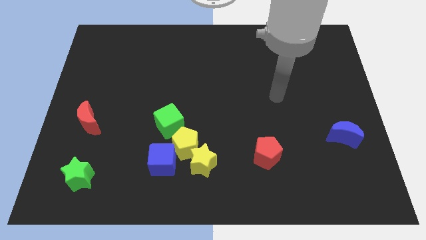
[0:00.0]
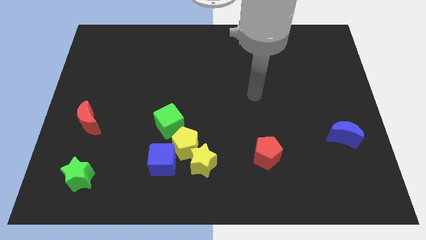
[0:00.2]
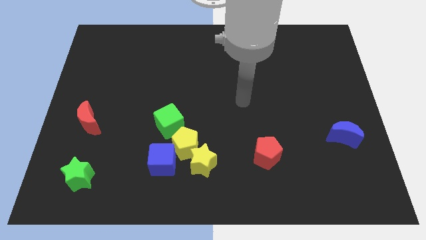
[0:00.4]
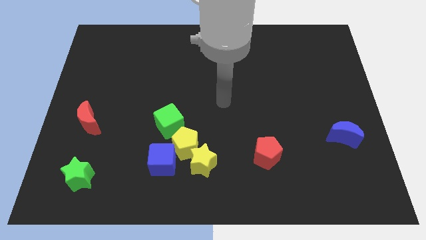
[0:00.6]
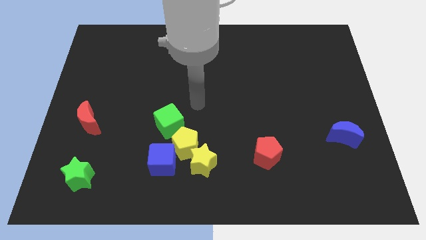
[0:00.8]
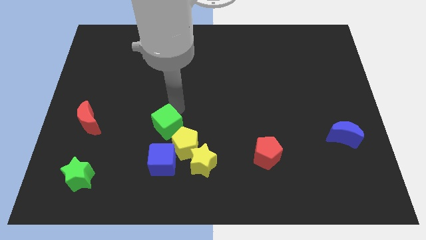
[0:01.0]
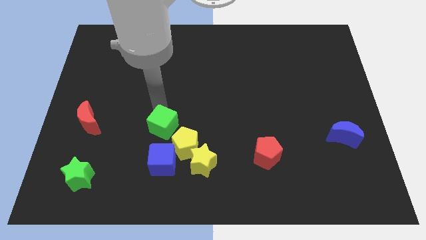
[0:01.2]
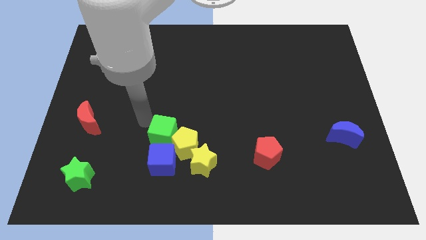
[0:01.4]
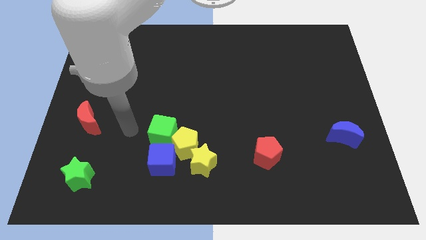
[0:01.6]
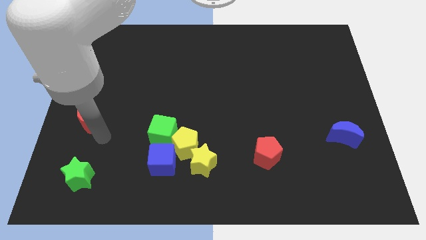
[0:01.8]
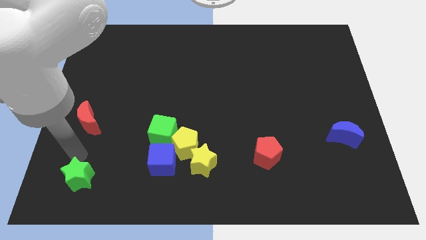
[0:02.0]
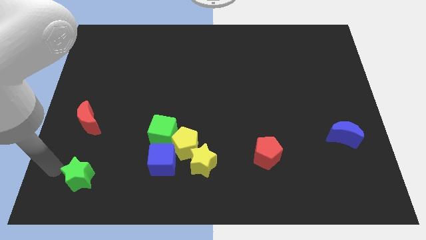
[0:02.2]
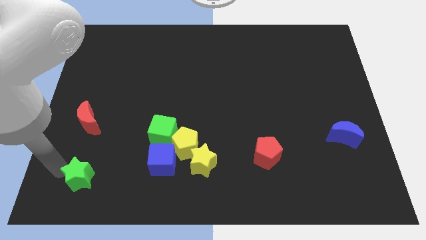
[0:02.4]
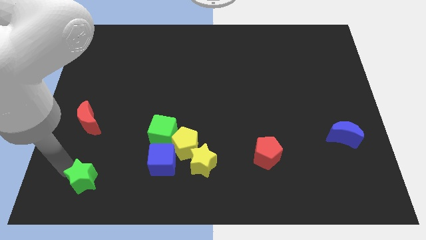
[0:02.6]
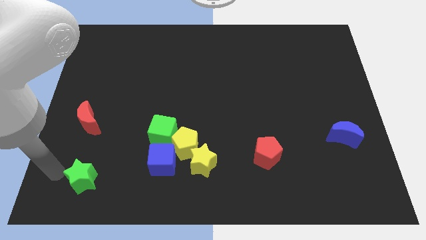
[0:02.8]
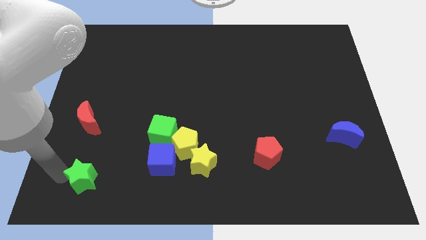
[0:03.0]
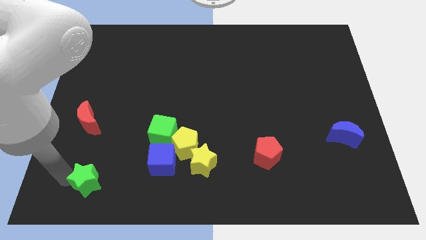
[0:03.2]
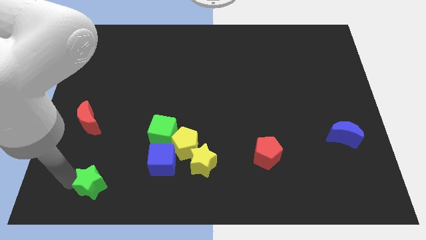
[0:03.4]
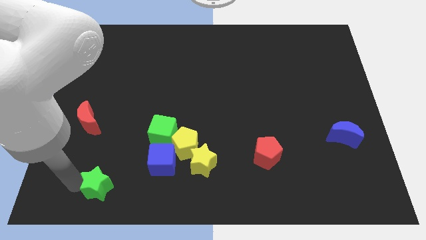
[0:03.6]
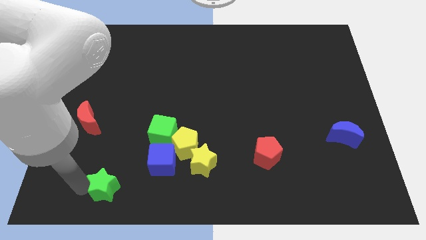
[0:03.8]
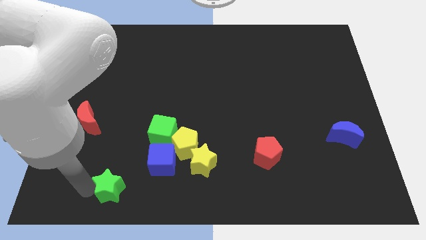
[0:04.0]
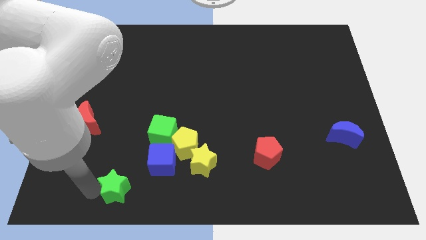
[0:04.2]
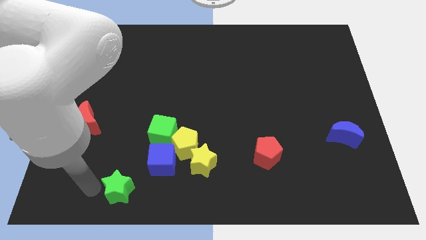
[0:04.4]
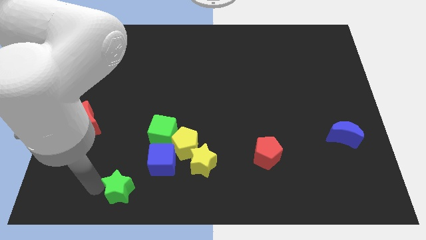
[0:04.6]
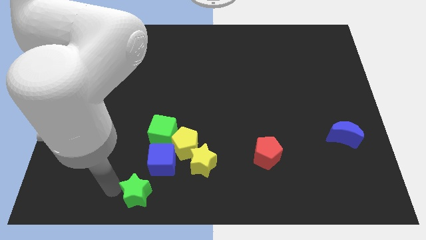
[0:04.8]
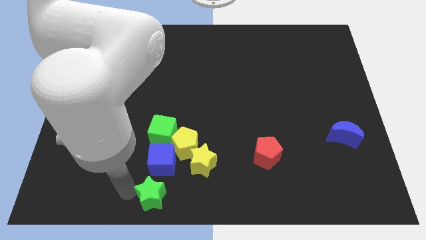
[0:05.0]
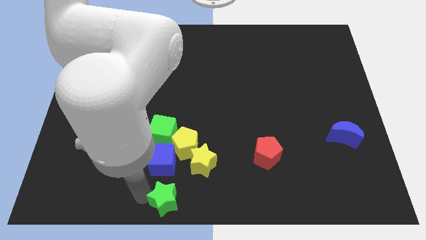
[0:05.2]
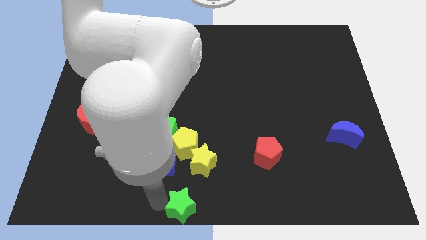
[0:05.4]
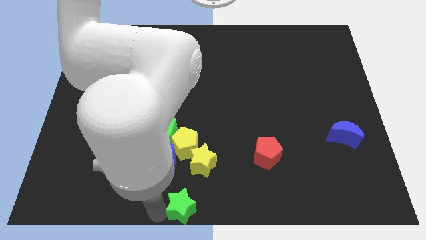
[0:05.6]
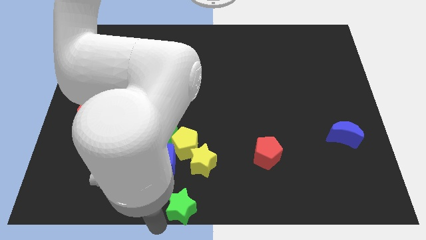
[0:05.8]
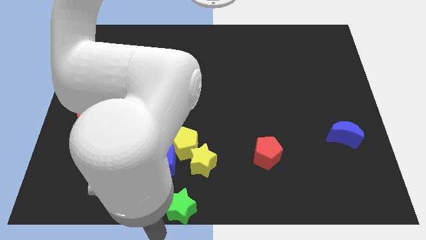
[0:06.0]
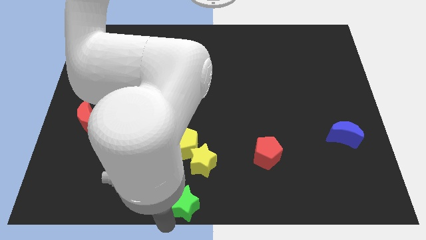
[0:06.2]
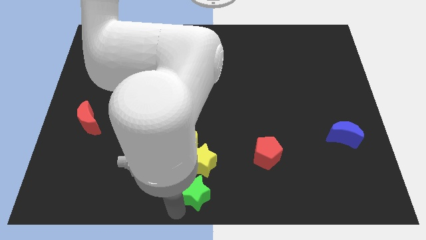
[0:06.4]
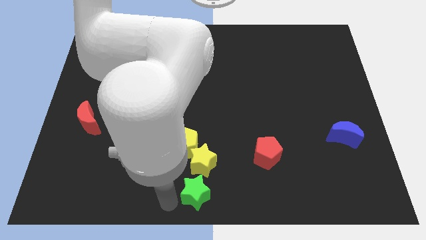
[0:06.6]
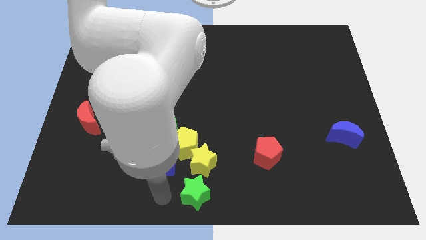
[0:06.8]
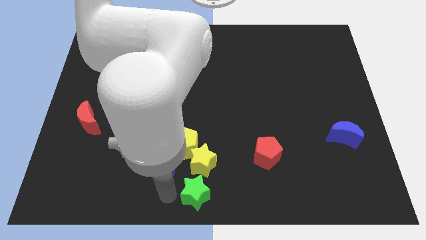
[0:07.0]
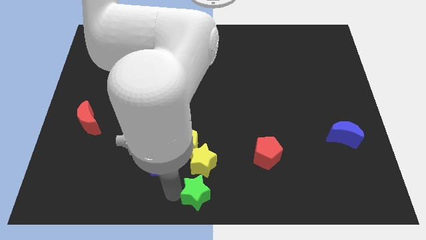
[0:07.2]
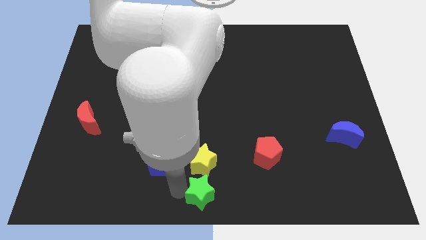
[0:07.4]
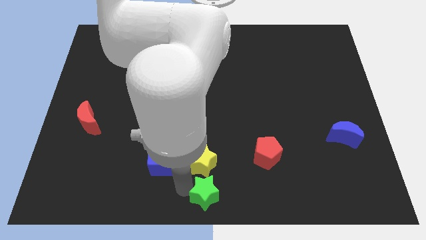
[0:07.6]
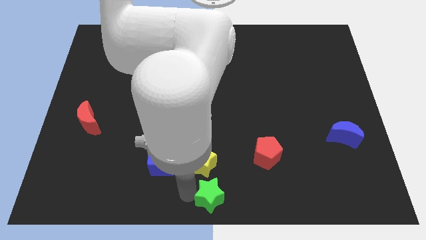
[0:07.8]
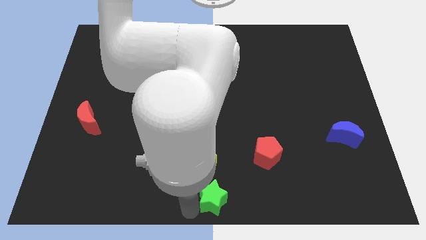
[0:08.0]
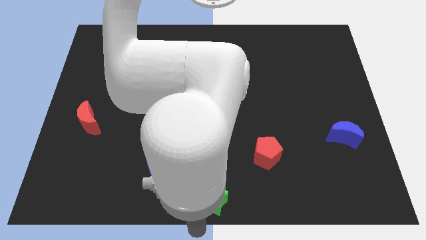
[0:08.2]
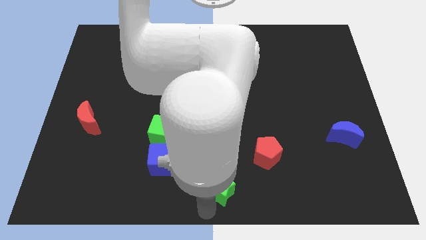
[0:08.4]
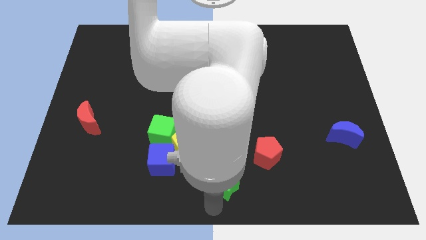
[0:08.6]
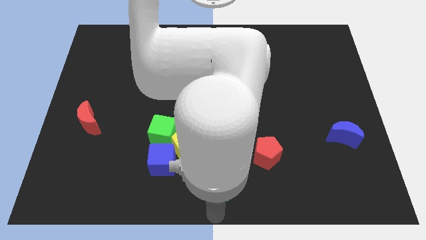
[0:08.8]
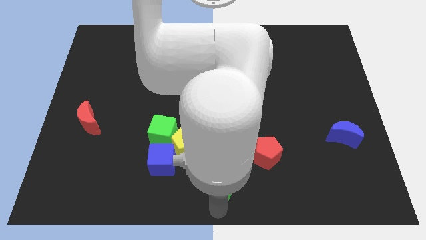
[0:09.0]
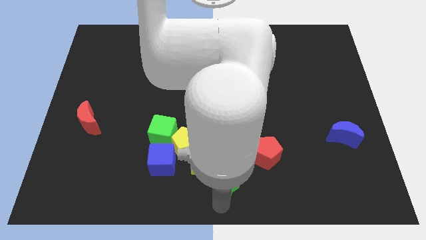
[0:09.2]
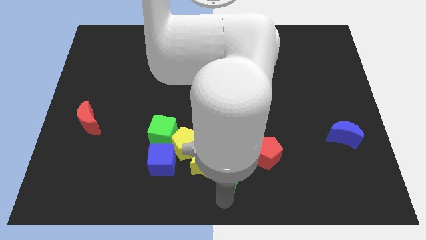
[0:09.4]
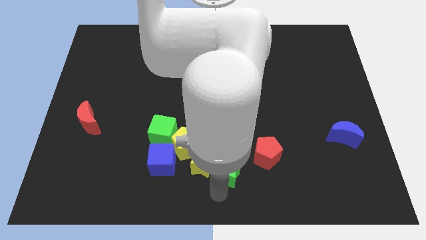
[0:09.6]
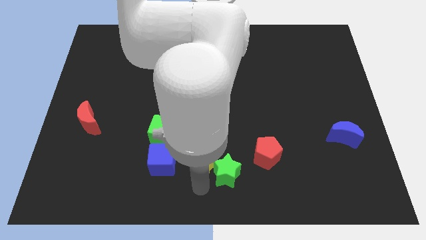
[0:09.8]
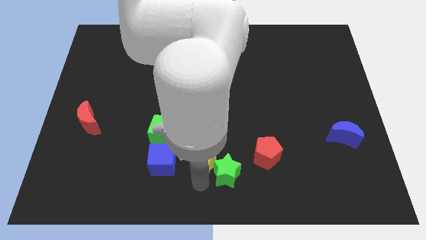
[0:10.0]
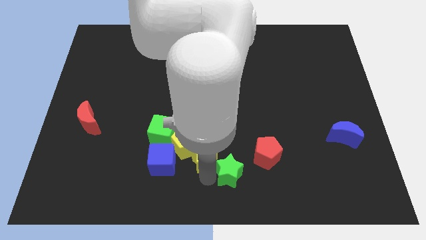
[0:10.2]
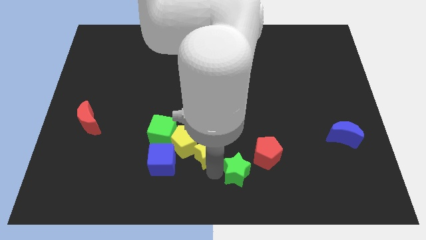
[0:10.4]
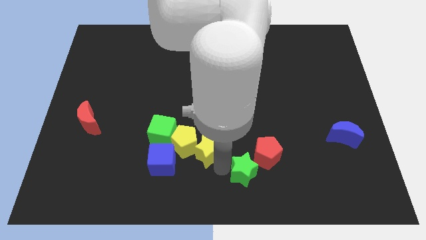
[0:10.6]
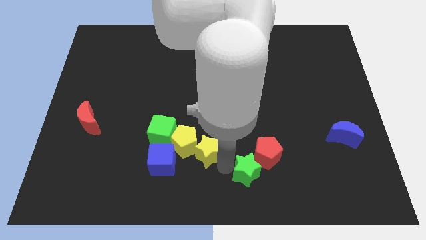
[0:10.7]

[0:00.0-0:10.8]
slide the green star close to the red pentagon

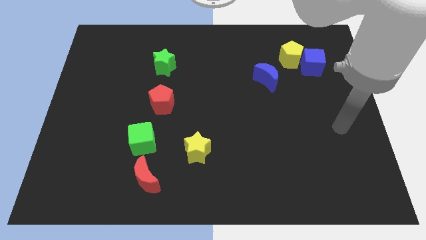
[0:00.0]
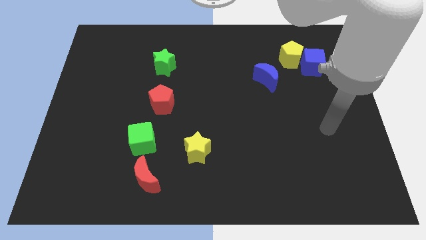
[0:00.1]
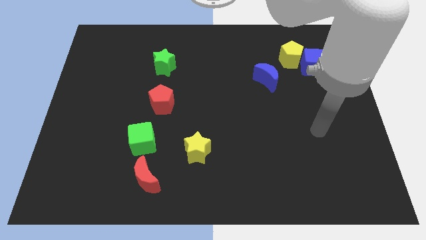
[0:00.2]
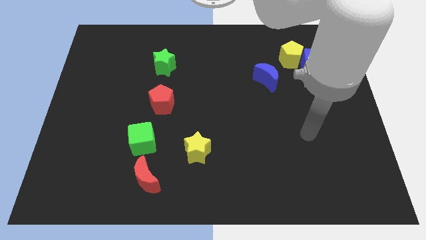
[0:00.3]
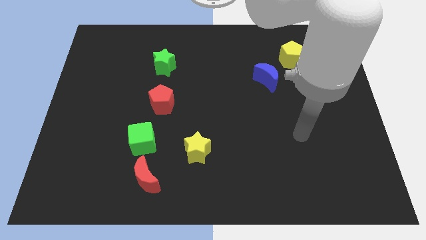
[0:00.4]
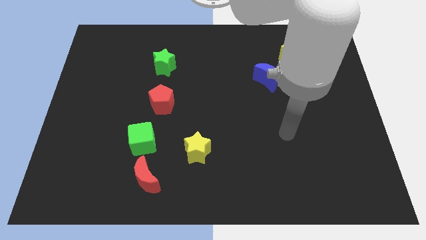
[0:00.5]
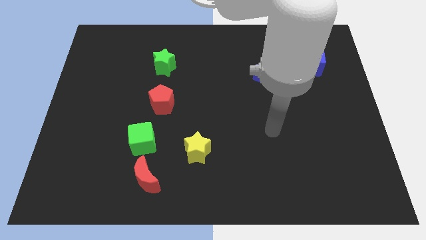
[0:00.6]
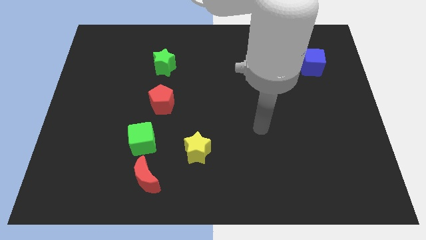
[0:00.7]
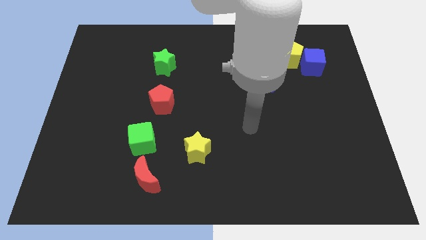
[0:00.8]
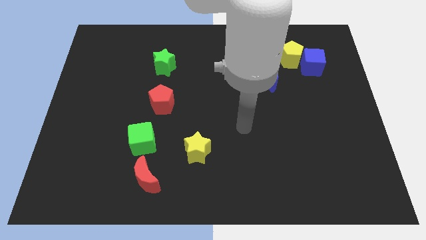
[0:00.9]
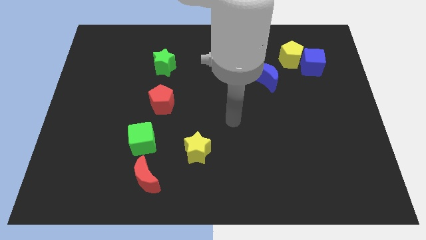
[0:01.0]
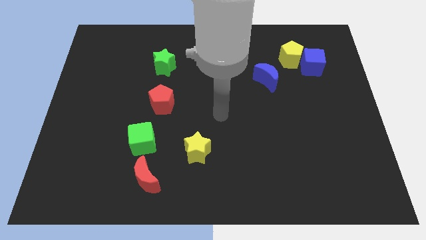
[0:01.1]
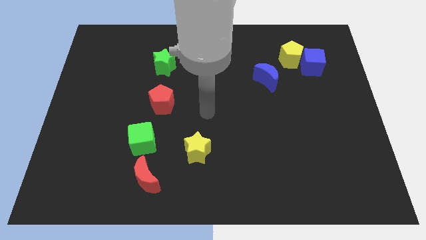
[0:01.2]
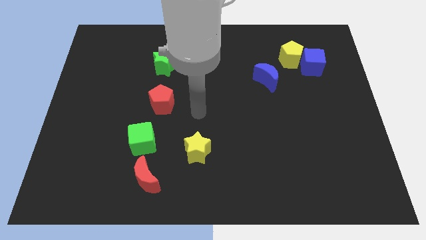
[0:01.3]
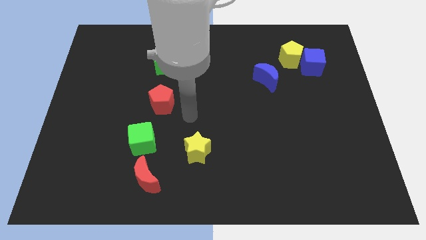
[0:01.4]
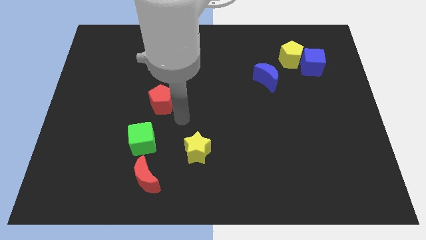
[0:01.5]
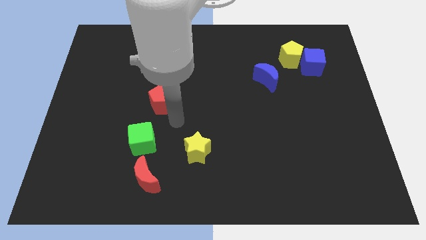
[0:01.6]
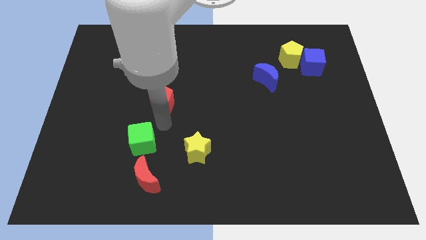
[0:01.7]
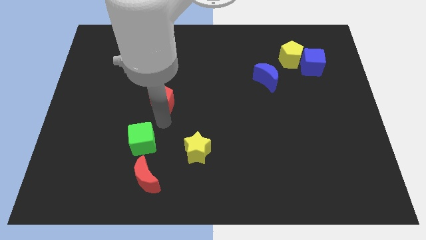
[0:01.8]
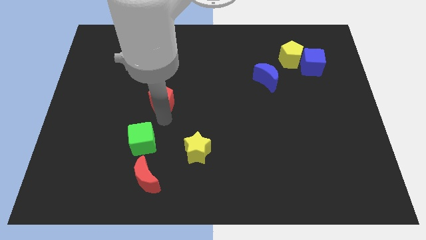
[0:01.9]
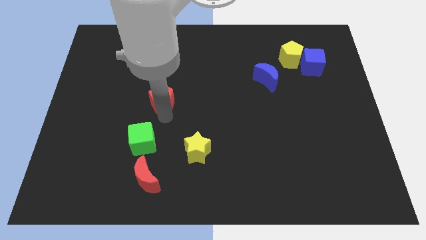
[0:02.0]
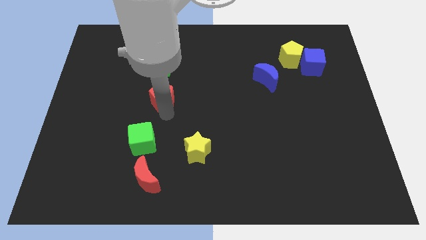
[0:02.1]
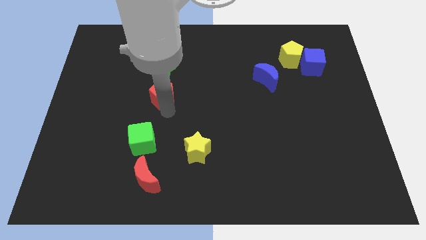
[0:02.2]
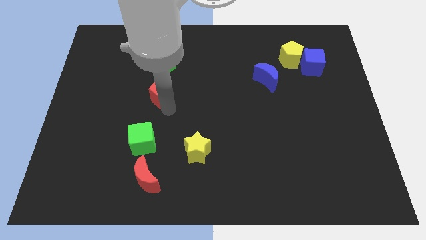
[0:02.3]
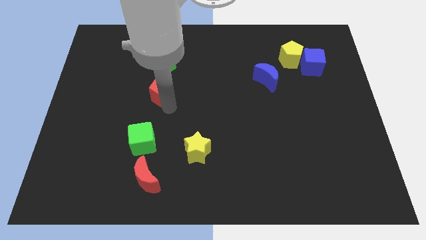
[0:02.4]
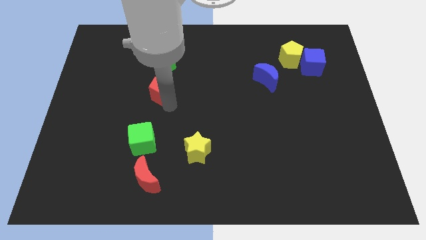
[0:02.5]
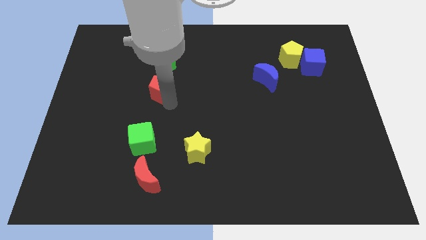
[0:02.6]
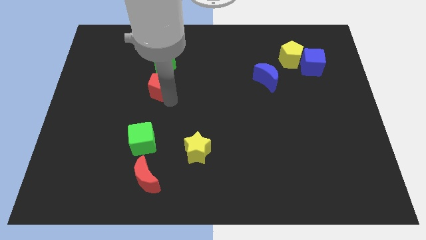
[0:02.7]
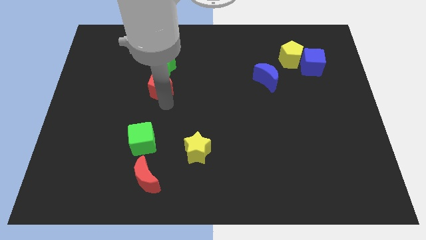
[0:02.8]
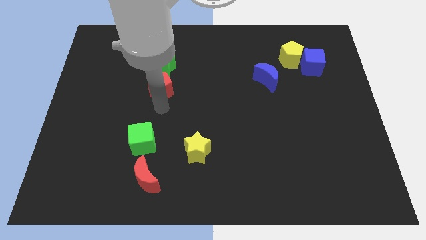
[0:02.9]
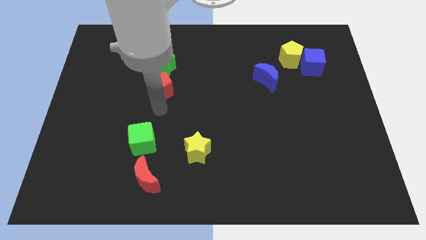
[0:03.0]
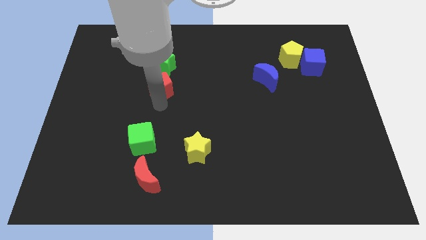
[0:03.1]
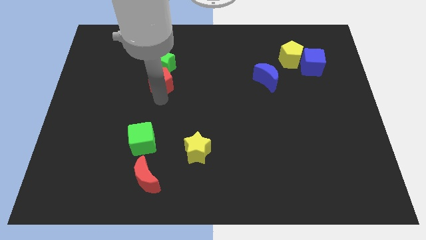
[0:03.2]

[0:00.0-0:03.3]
push the red pentagon next to the green star
